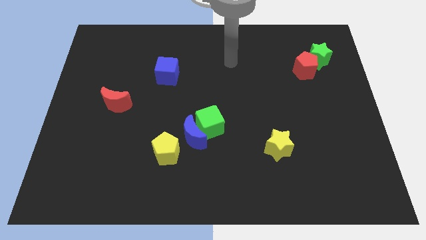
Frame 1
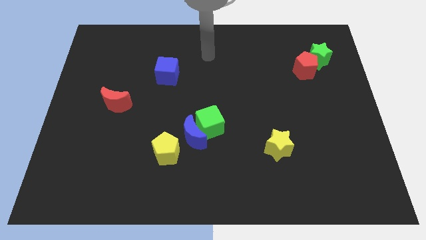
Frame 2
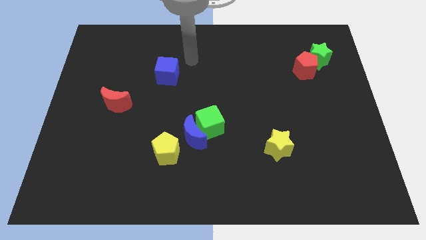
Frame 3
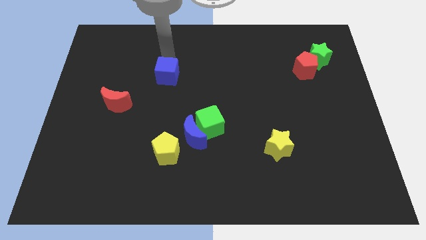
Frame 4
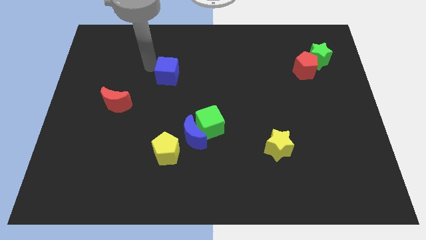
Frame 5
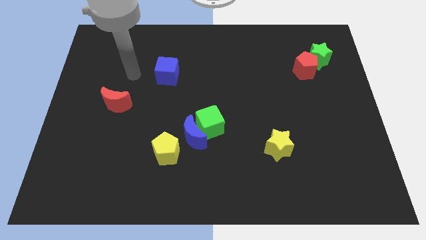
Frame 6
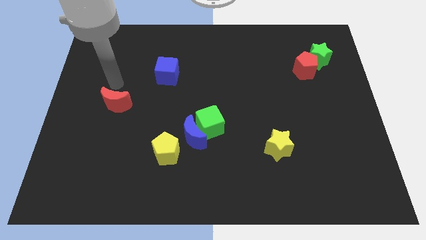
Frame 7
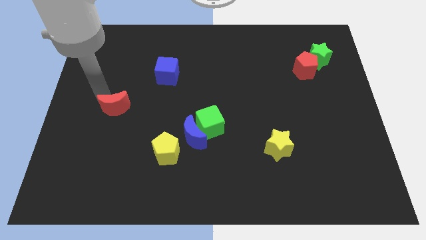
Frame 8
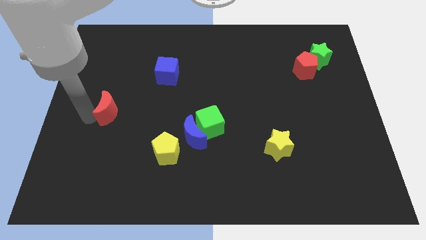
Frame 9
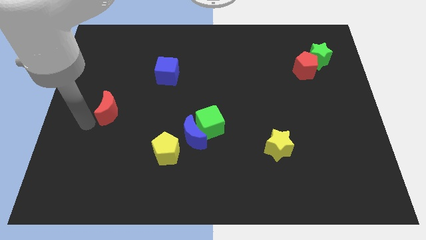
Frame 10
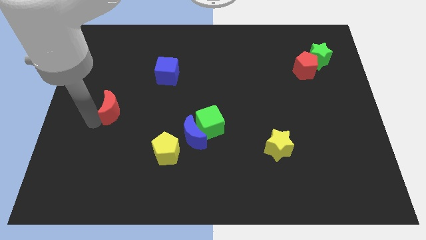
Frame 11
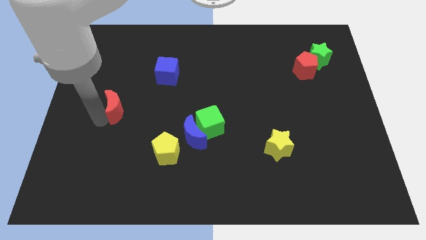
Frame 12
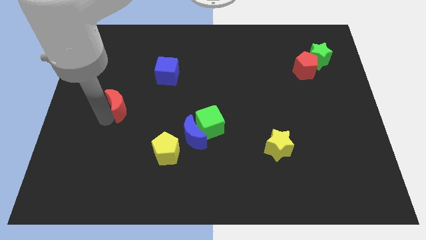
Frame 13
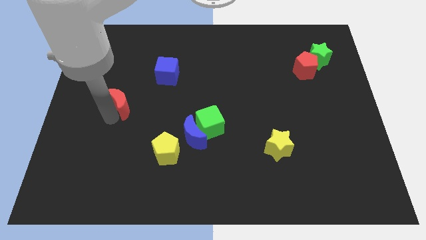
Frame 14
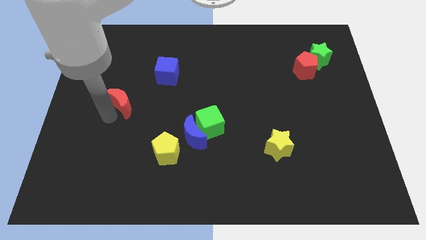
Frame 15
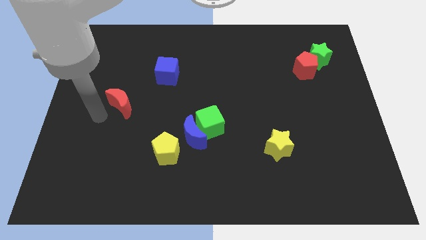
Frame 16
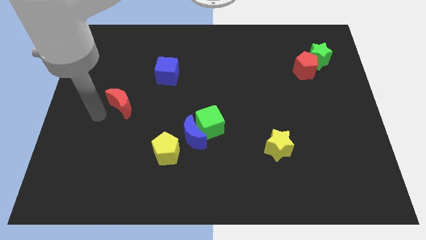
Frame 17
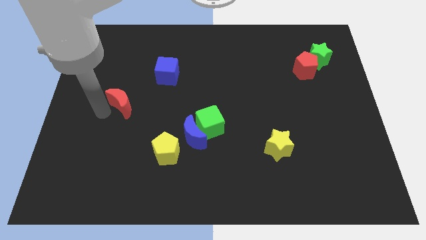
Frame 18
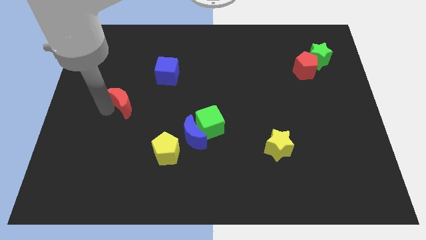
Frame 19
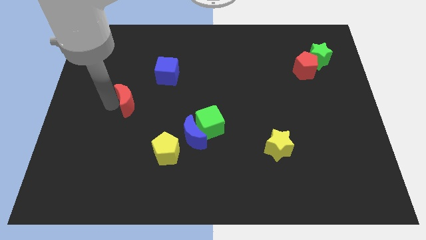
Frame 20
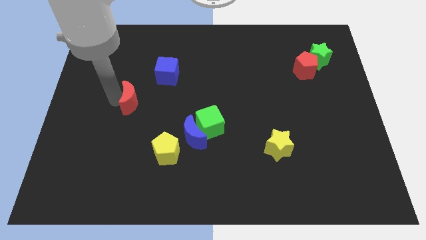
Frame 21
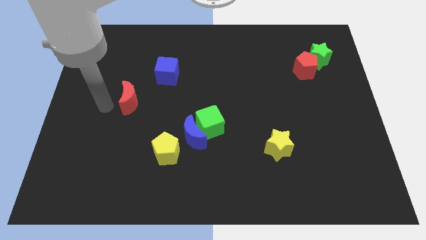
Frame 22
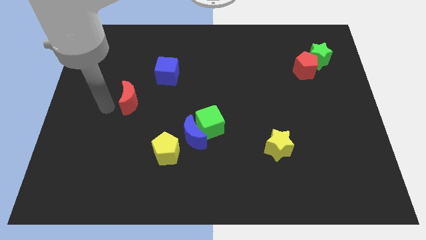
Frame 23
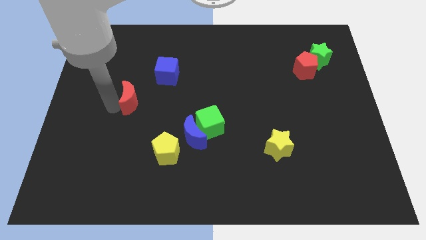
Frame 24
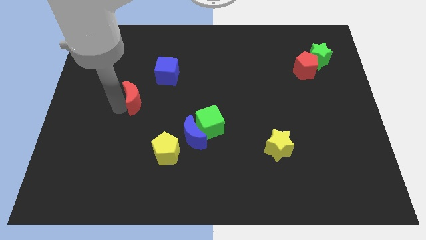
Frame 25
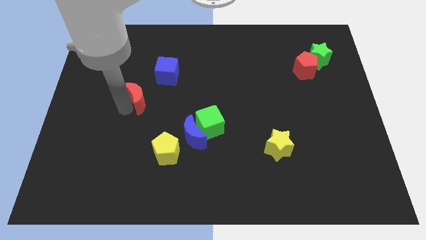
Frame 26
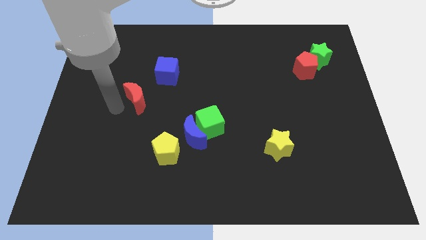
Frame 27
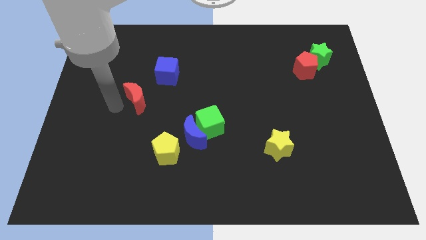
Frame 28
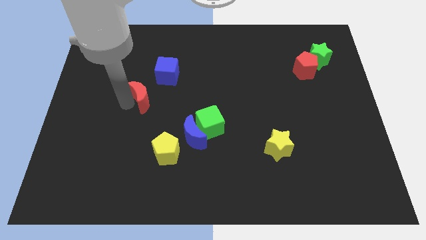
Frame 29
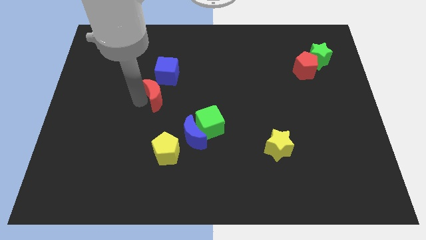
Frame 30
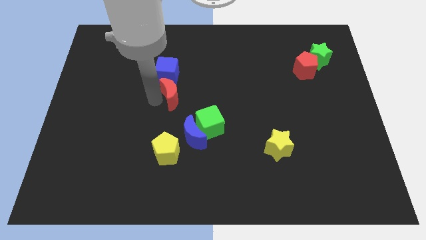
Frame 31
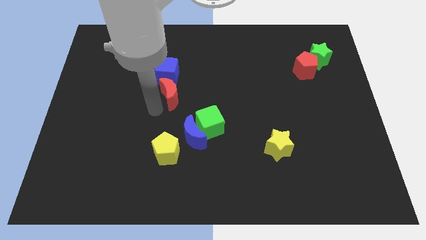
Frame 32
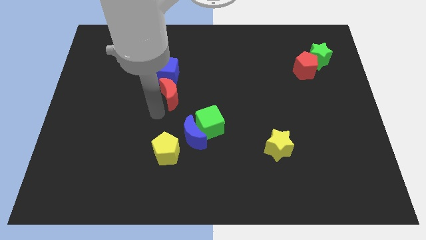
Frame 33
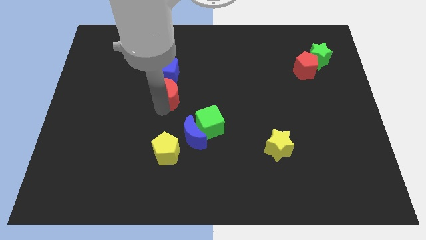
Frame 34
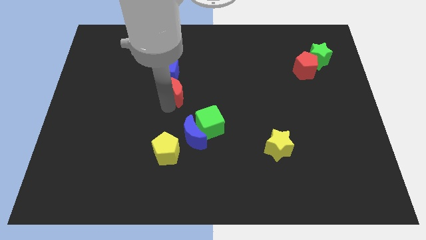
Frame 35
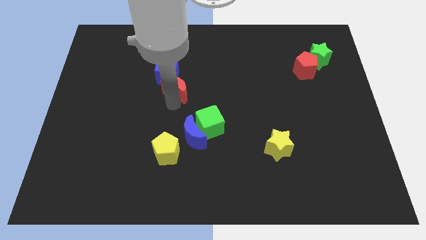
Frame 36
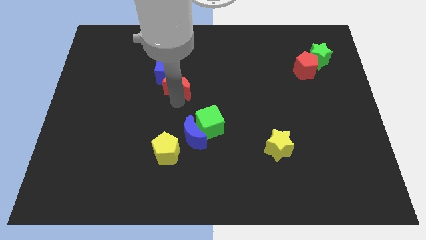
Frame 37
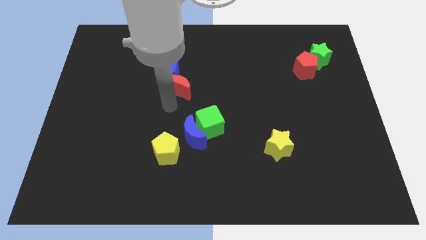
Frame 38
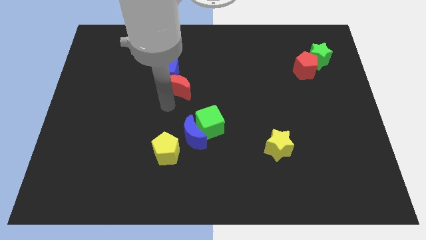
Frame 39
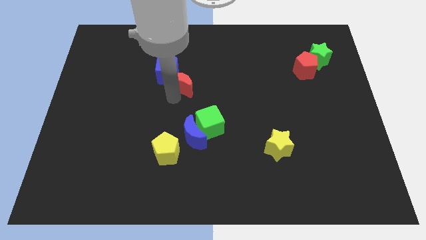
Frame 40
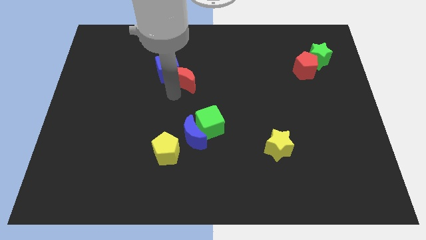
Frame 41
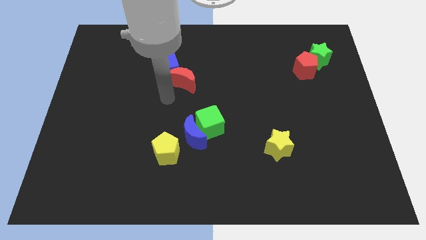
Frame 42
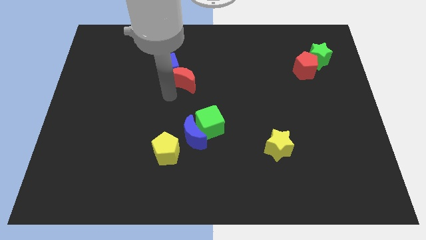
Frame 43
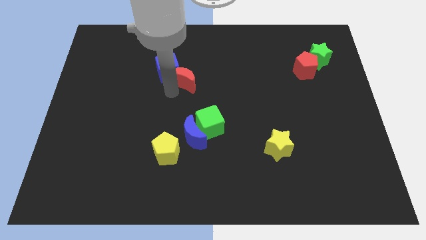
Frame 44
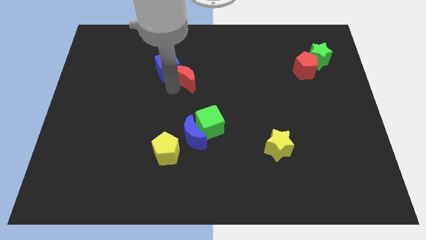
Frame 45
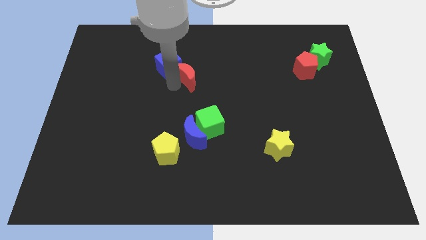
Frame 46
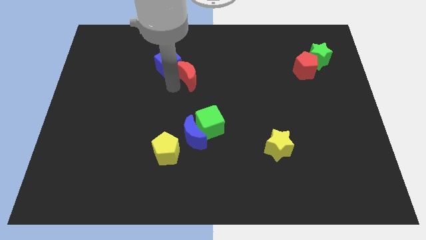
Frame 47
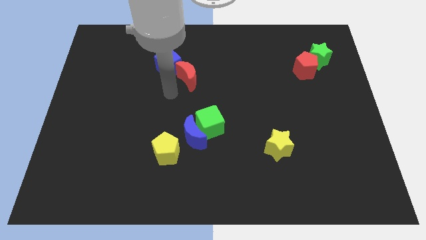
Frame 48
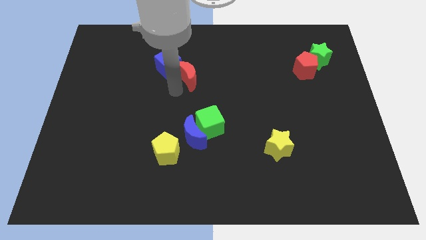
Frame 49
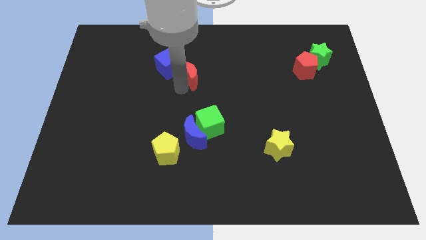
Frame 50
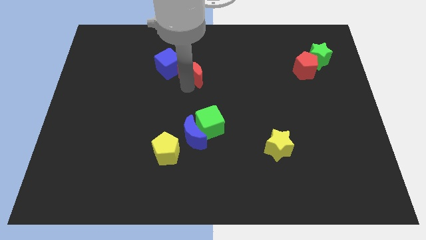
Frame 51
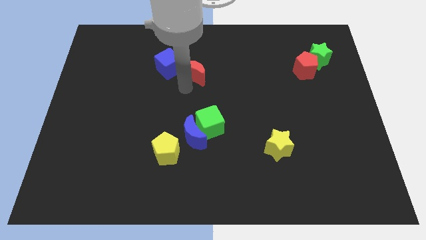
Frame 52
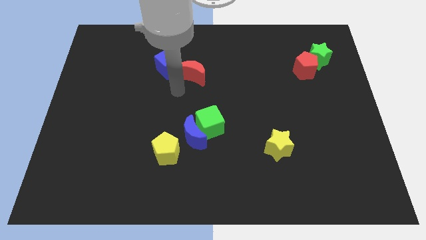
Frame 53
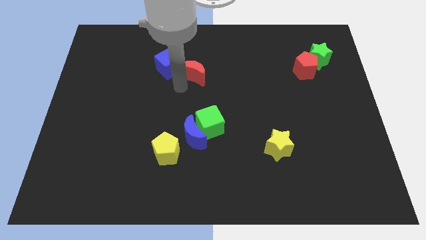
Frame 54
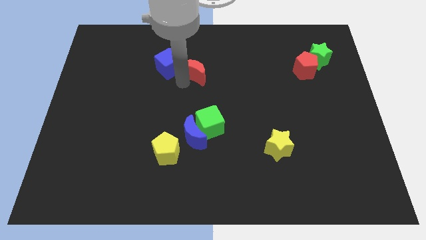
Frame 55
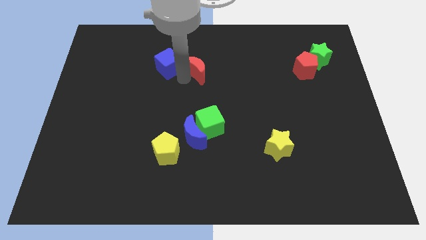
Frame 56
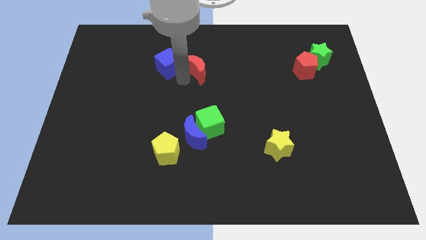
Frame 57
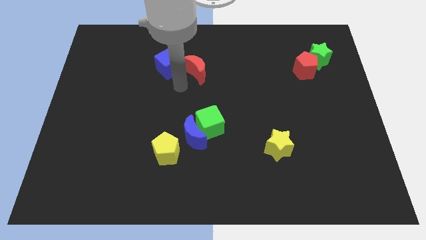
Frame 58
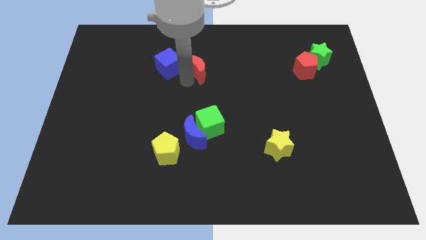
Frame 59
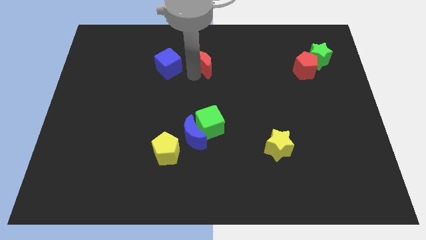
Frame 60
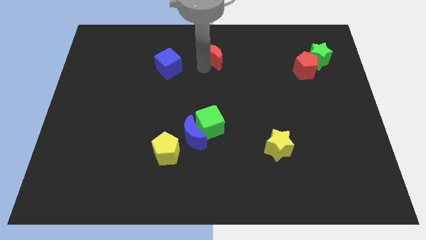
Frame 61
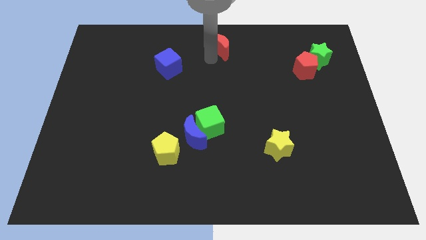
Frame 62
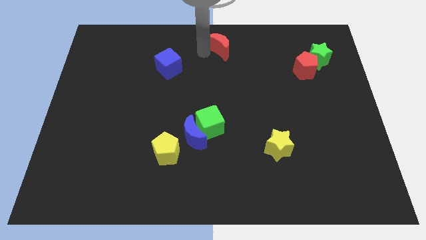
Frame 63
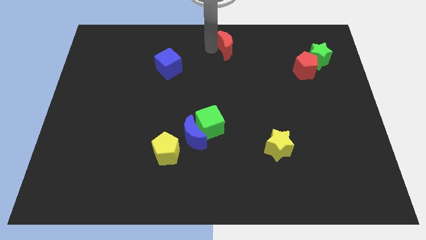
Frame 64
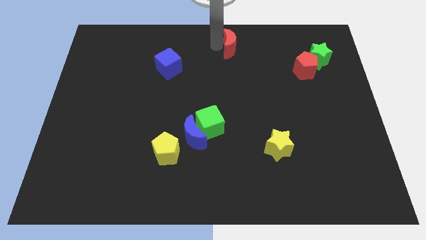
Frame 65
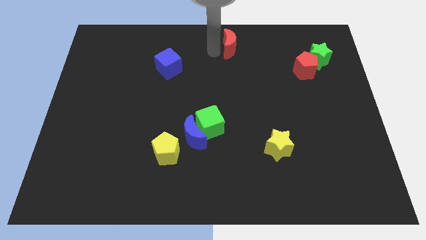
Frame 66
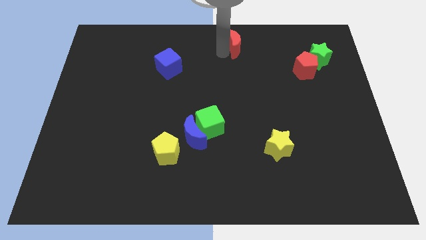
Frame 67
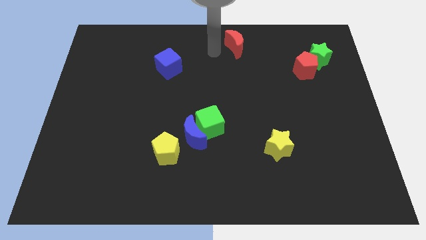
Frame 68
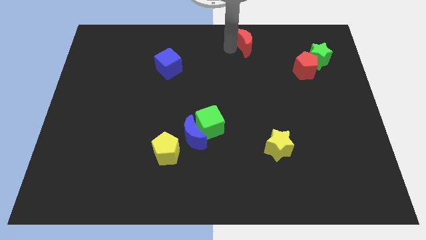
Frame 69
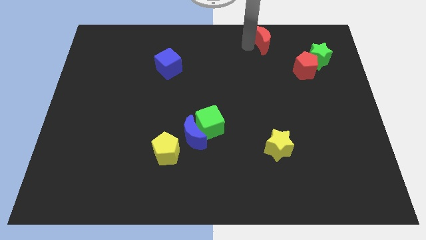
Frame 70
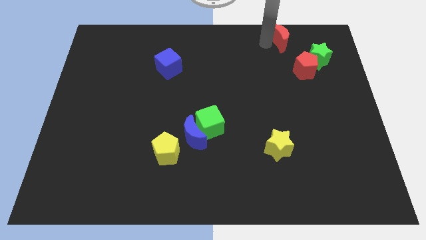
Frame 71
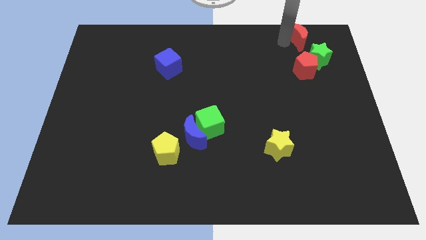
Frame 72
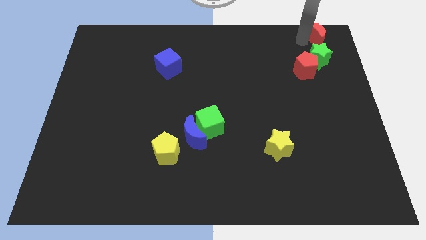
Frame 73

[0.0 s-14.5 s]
push the red moon to the top right
